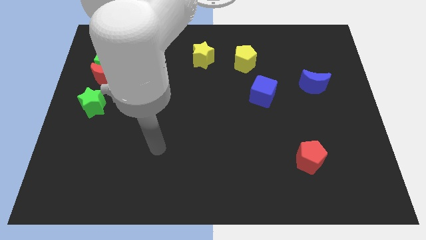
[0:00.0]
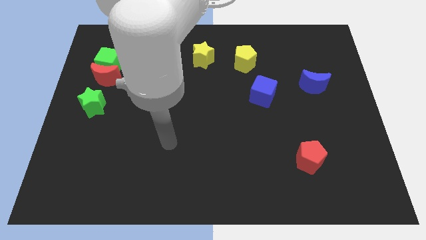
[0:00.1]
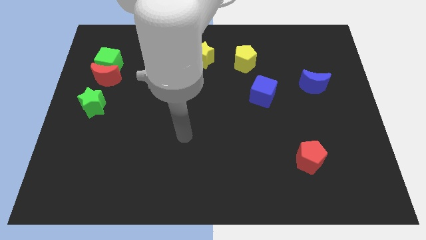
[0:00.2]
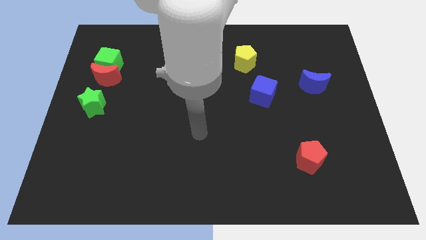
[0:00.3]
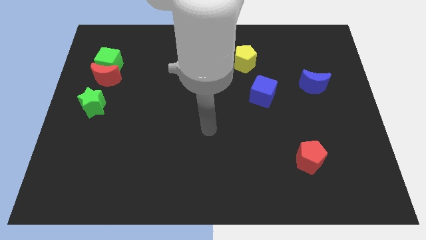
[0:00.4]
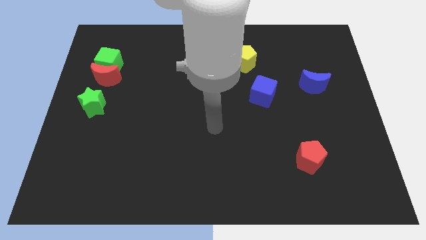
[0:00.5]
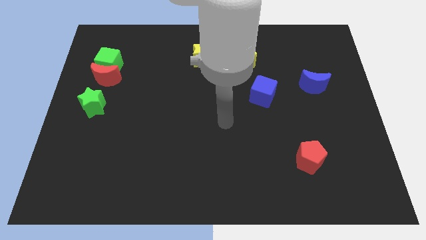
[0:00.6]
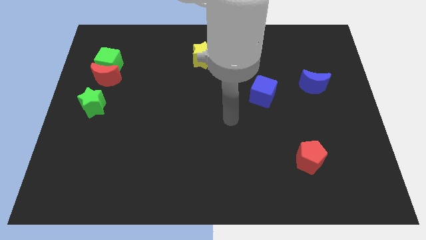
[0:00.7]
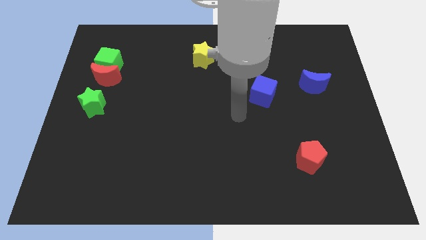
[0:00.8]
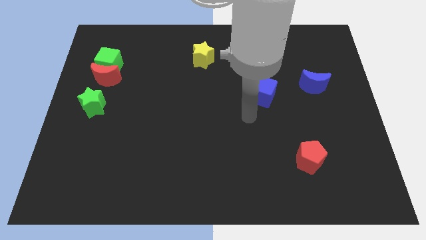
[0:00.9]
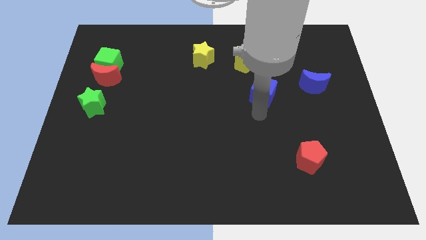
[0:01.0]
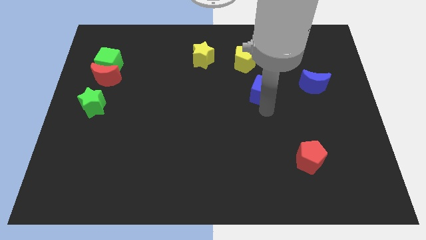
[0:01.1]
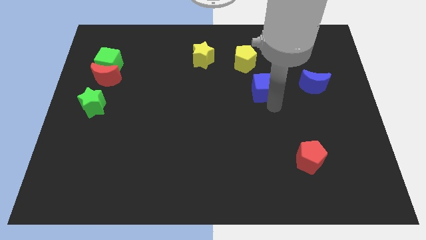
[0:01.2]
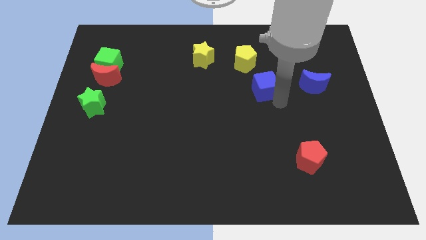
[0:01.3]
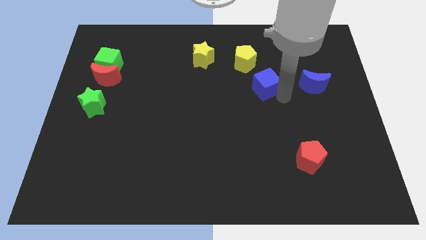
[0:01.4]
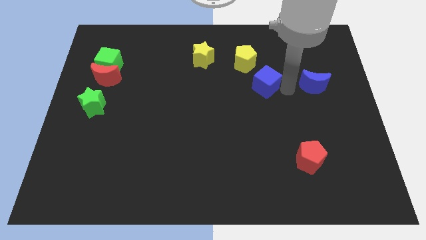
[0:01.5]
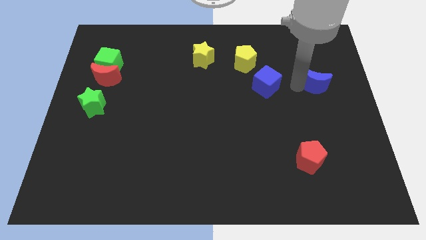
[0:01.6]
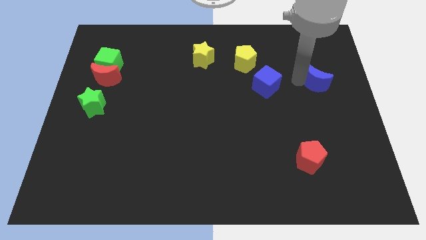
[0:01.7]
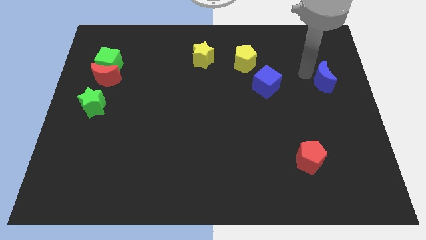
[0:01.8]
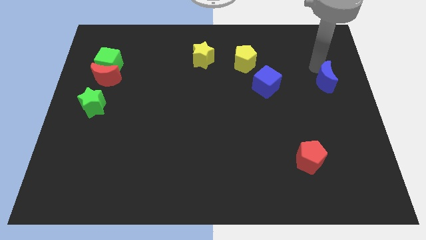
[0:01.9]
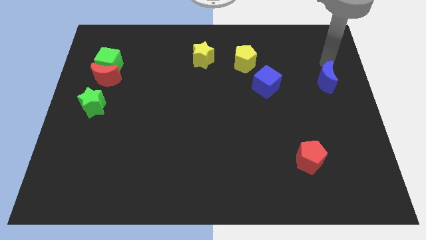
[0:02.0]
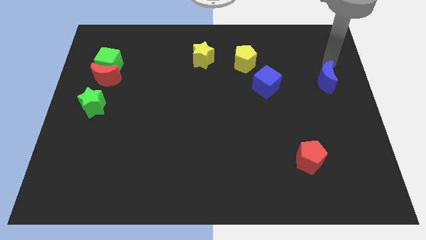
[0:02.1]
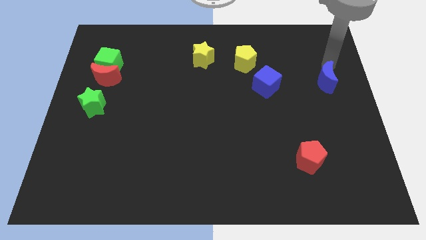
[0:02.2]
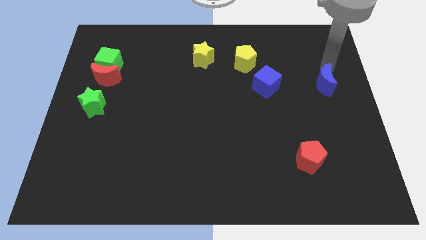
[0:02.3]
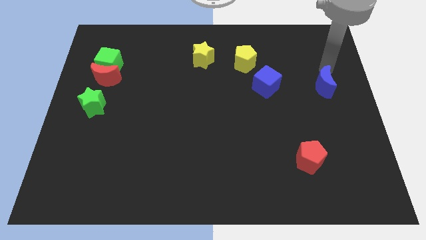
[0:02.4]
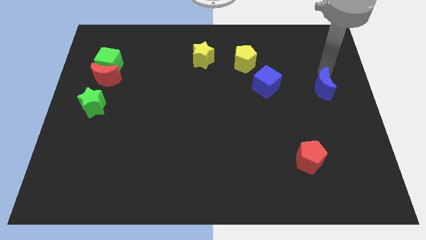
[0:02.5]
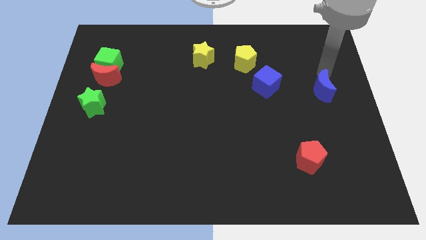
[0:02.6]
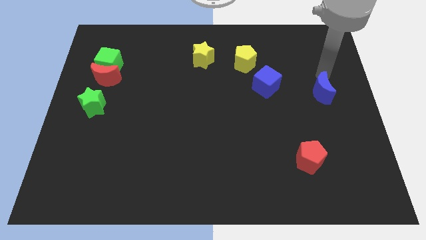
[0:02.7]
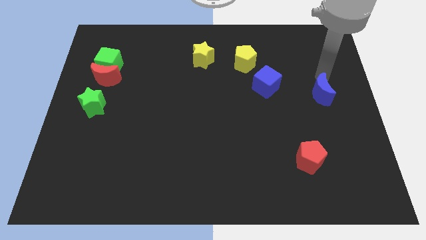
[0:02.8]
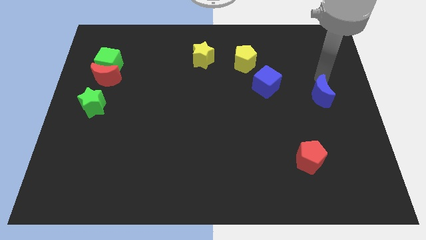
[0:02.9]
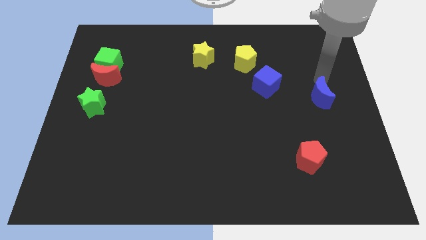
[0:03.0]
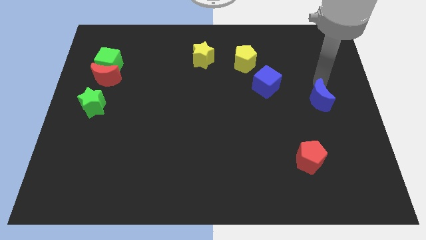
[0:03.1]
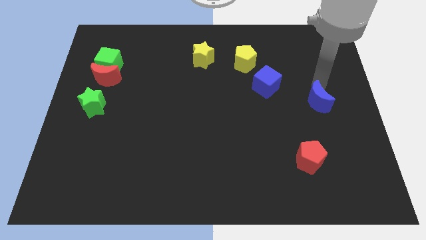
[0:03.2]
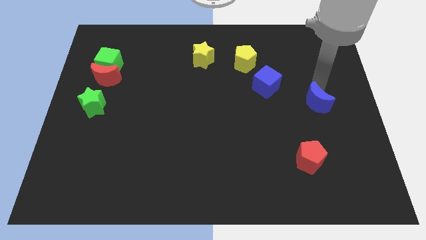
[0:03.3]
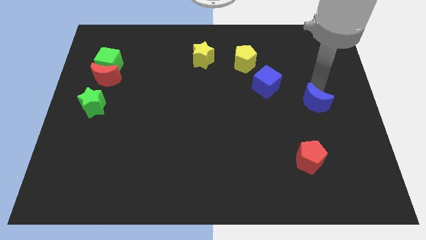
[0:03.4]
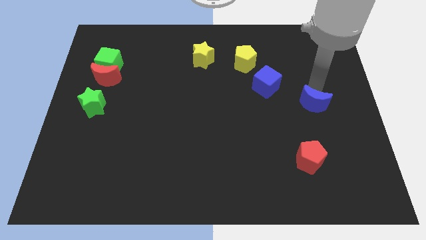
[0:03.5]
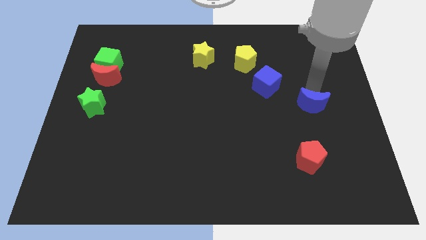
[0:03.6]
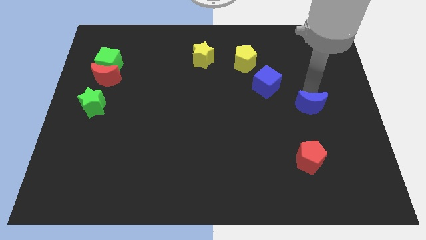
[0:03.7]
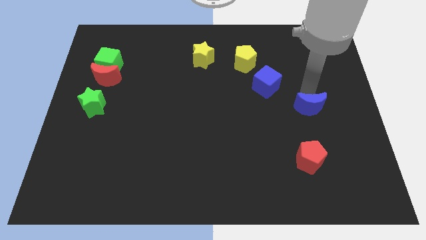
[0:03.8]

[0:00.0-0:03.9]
move the blue moon a bit down

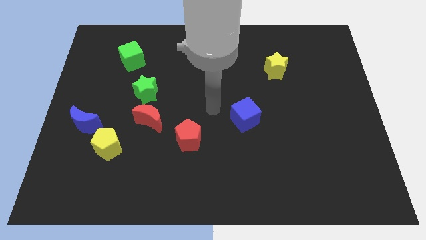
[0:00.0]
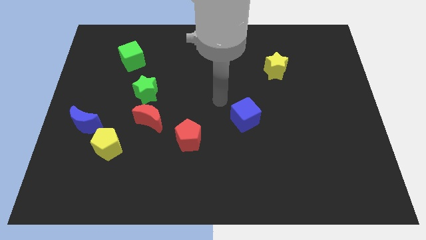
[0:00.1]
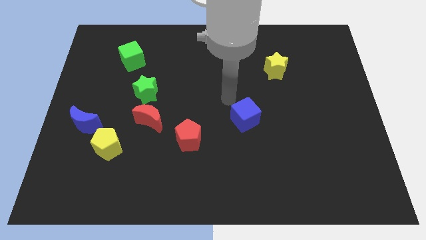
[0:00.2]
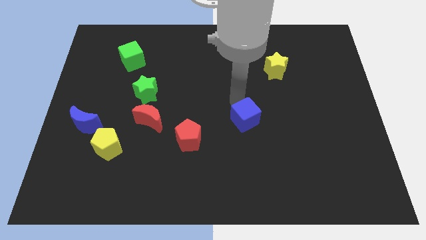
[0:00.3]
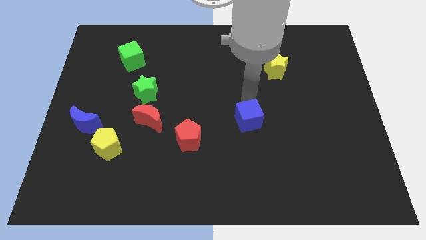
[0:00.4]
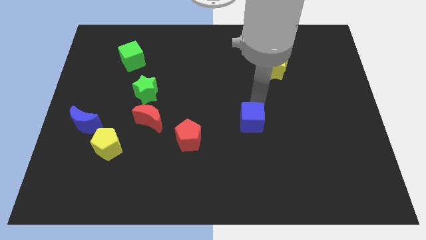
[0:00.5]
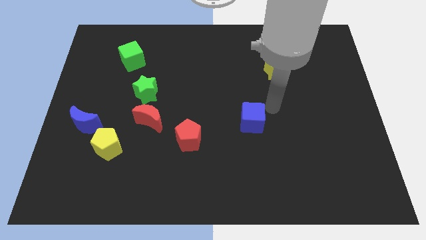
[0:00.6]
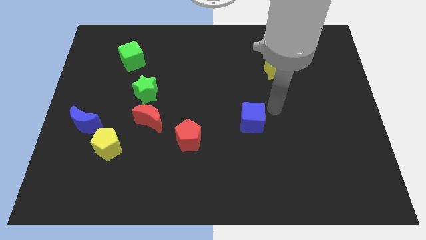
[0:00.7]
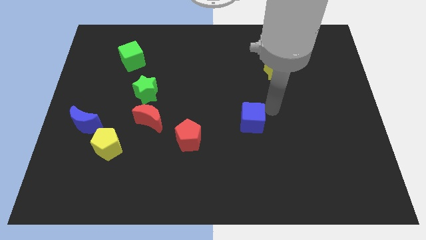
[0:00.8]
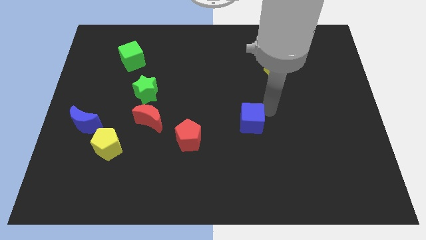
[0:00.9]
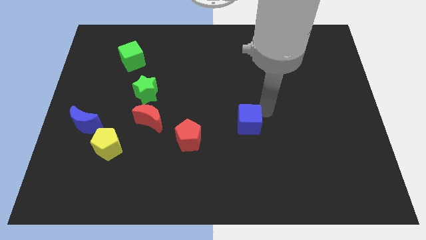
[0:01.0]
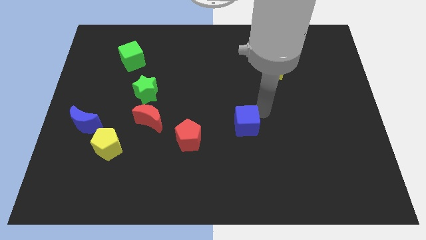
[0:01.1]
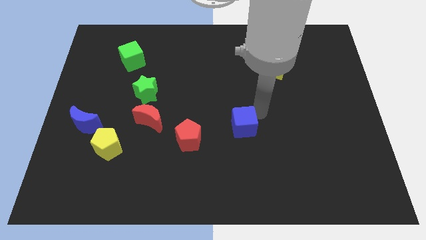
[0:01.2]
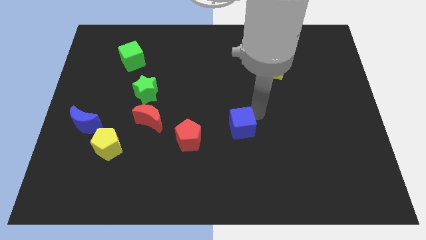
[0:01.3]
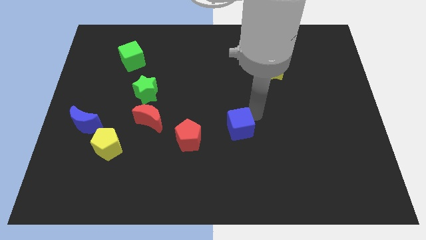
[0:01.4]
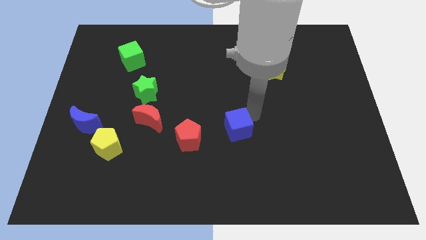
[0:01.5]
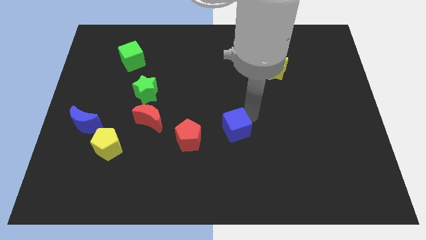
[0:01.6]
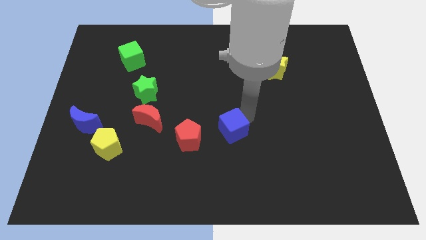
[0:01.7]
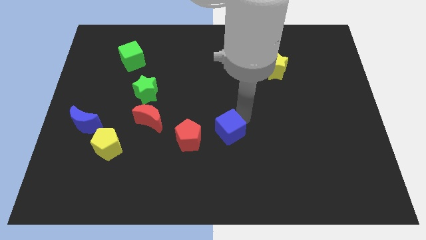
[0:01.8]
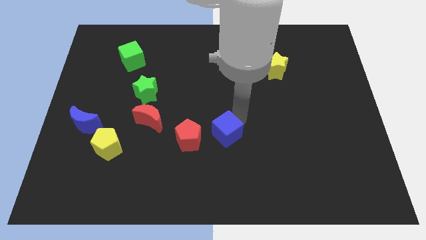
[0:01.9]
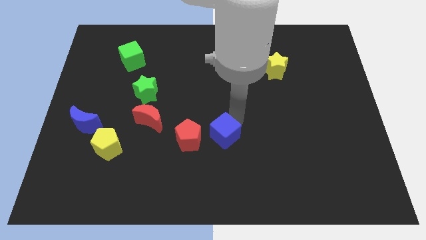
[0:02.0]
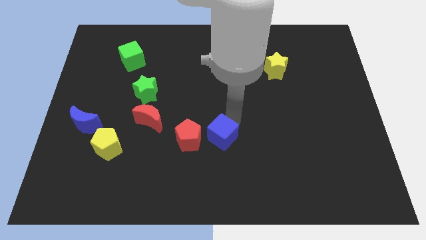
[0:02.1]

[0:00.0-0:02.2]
slide the blue cube downwards and left a little bit

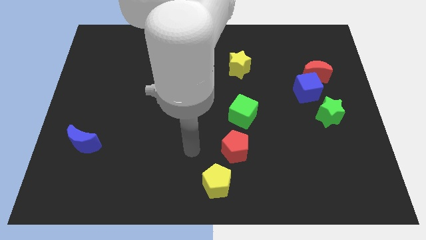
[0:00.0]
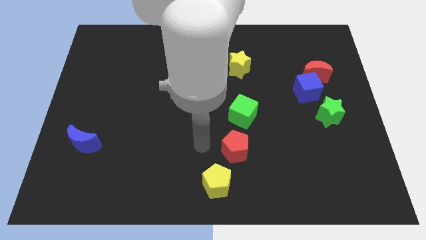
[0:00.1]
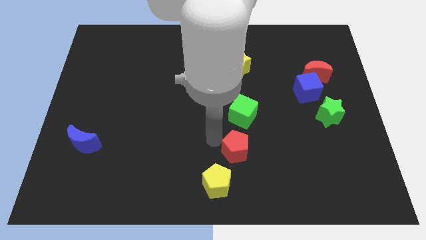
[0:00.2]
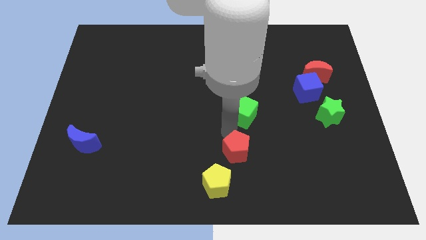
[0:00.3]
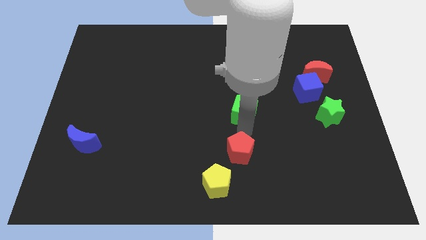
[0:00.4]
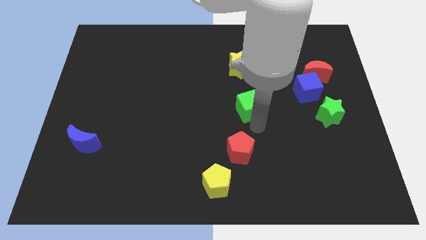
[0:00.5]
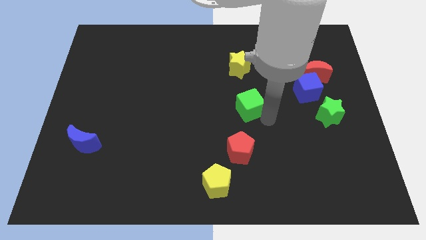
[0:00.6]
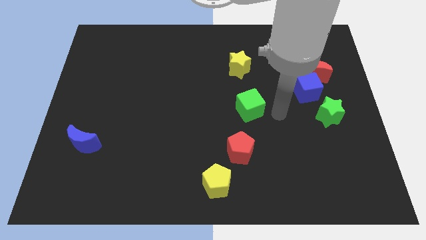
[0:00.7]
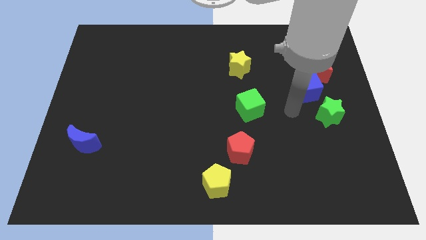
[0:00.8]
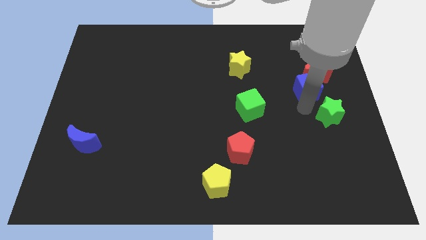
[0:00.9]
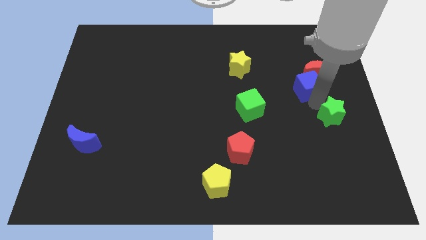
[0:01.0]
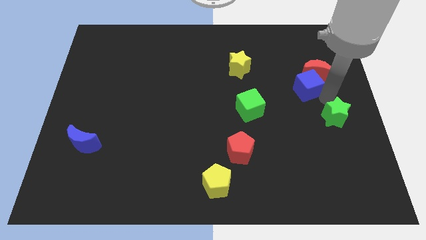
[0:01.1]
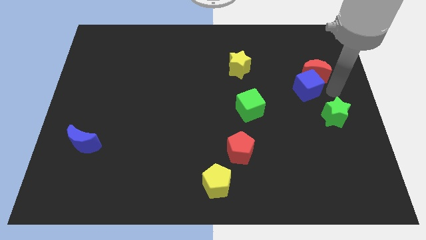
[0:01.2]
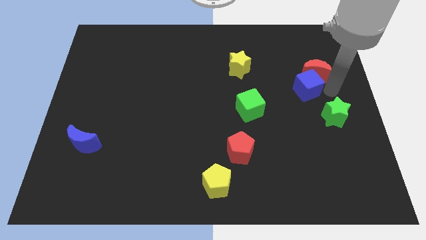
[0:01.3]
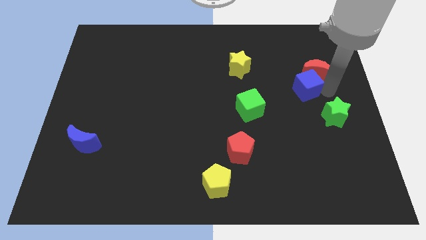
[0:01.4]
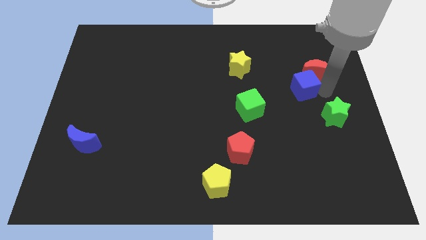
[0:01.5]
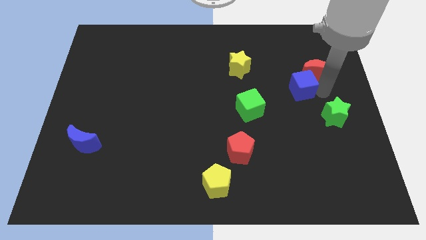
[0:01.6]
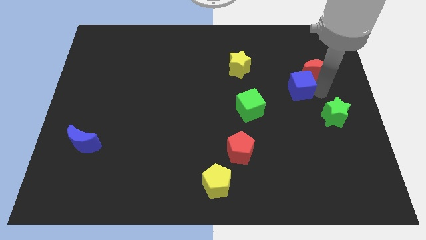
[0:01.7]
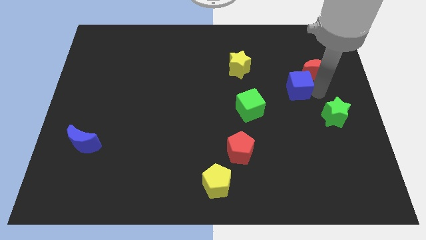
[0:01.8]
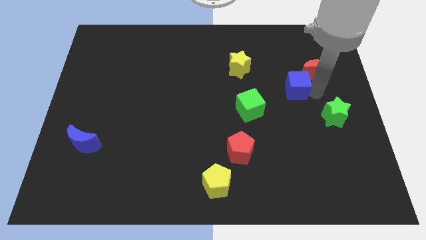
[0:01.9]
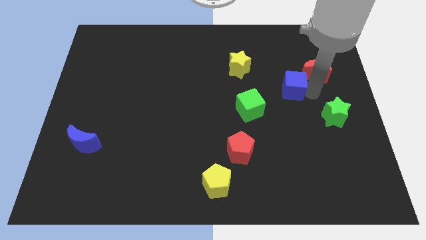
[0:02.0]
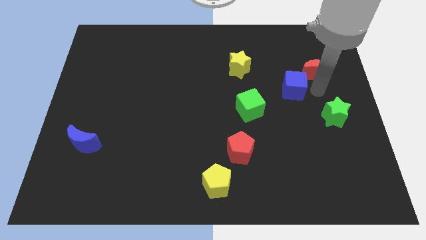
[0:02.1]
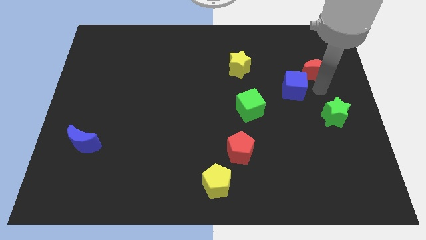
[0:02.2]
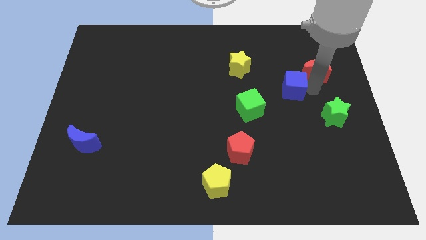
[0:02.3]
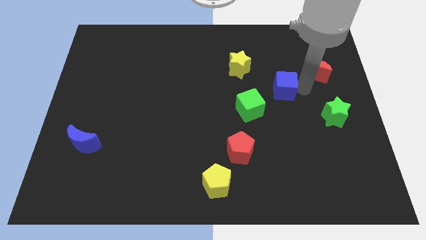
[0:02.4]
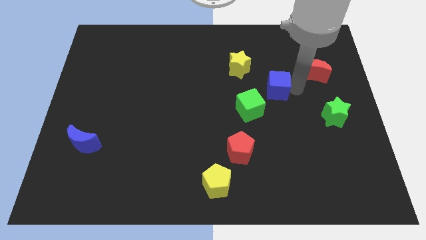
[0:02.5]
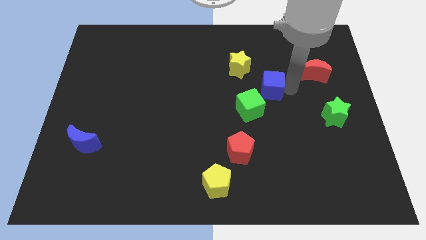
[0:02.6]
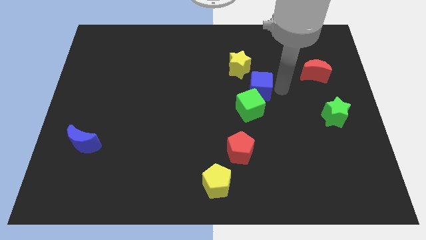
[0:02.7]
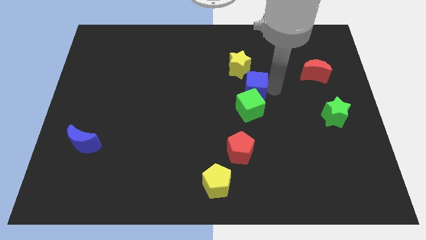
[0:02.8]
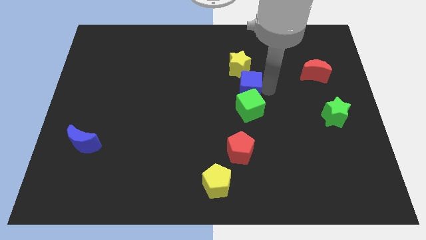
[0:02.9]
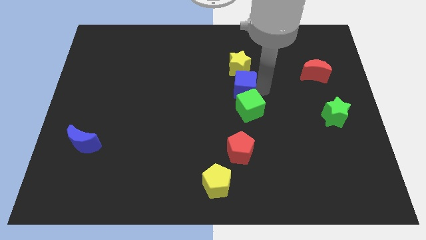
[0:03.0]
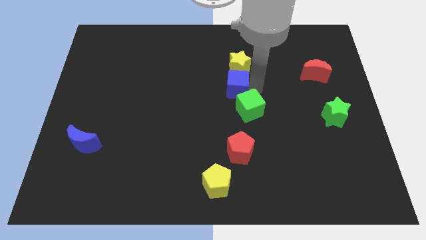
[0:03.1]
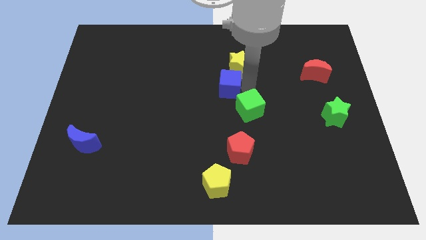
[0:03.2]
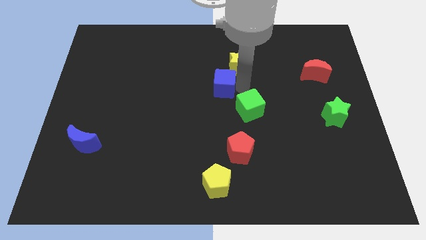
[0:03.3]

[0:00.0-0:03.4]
slide the blue cube to the left
